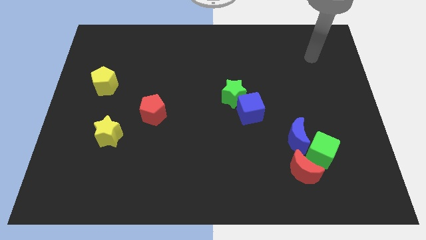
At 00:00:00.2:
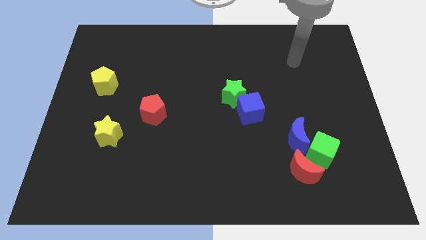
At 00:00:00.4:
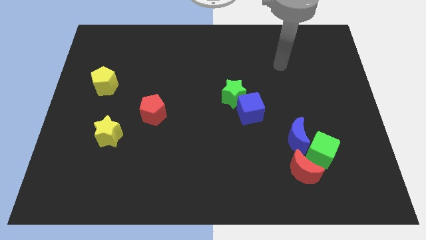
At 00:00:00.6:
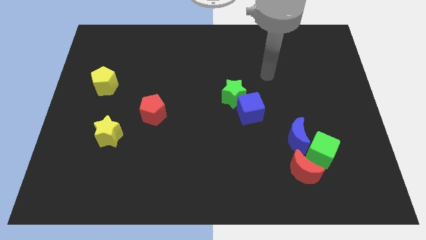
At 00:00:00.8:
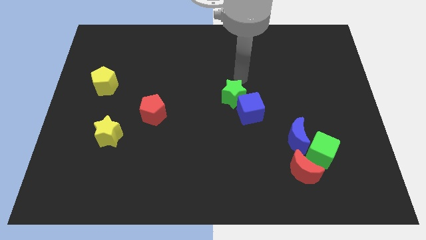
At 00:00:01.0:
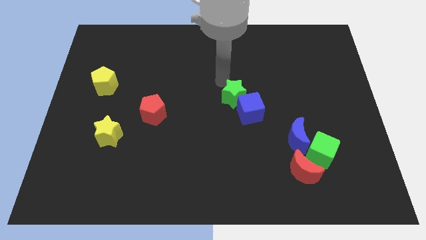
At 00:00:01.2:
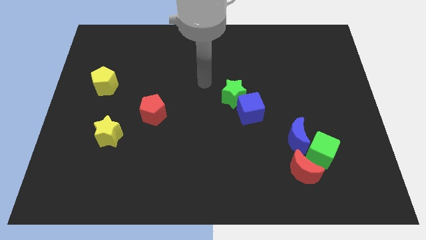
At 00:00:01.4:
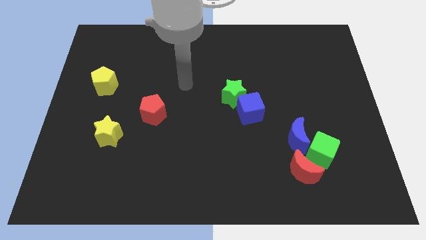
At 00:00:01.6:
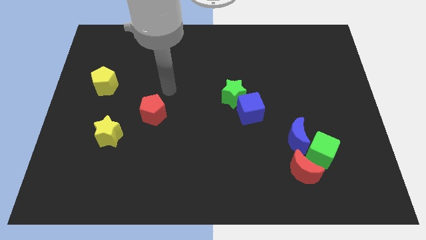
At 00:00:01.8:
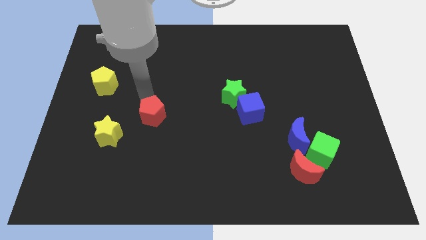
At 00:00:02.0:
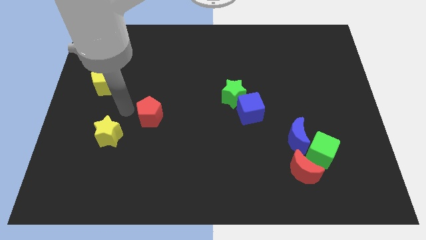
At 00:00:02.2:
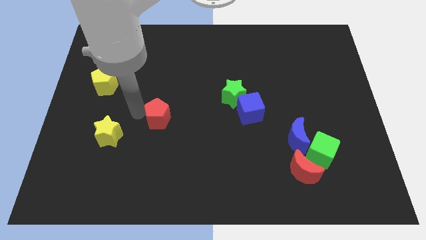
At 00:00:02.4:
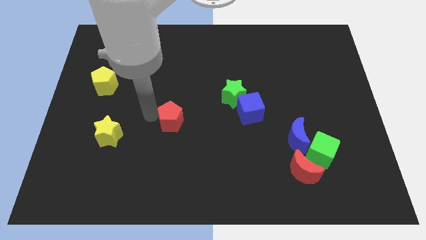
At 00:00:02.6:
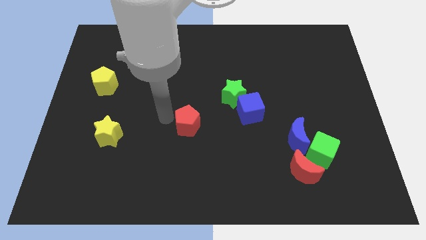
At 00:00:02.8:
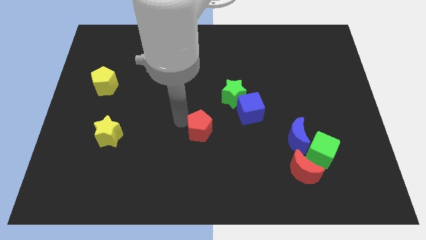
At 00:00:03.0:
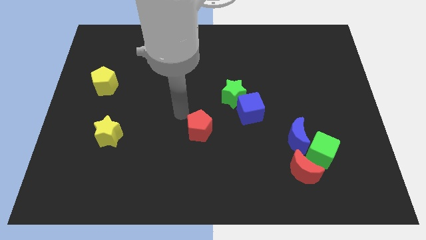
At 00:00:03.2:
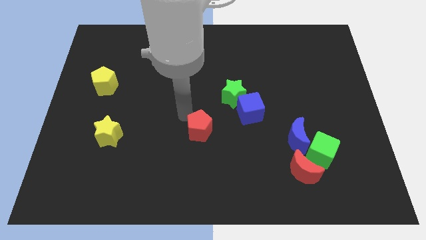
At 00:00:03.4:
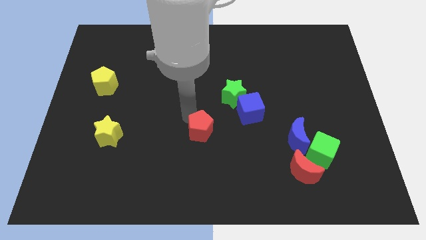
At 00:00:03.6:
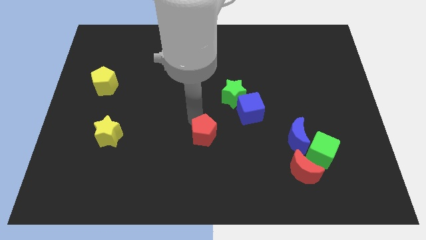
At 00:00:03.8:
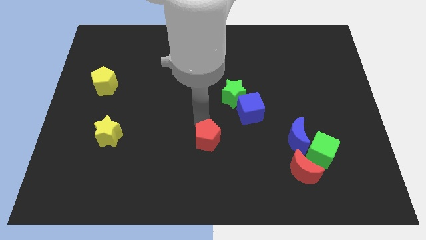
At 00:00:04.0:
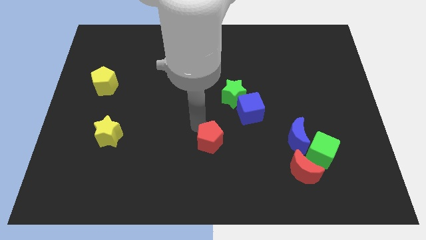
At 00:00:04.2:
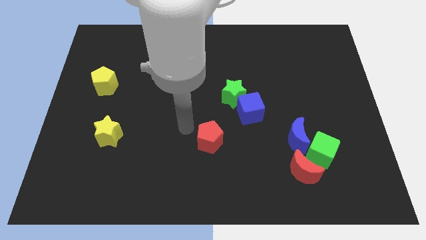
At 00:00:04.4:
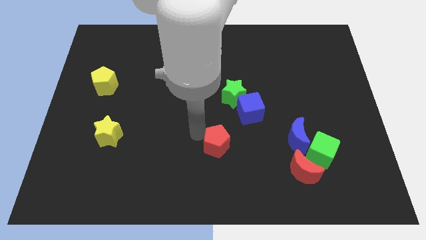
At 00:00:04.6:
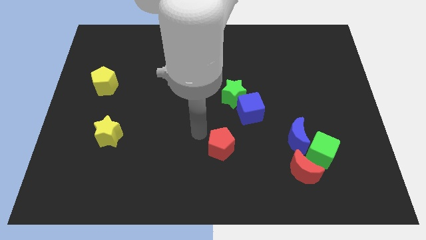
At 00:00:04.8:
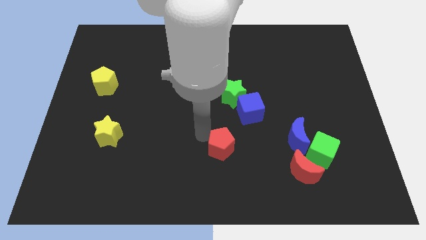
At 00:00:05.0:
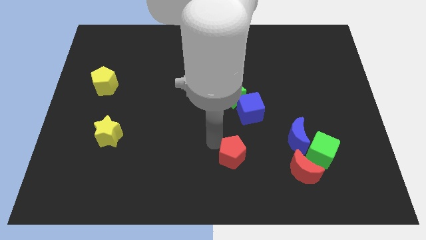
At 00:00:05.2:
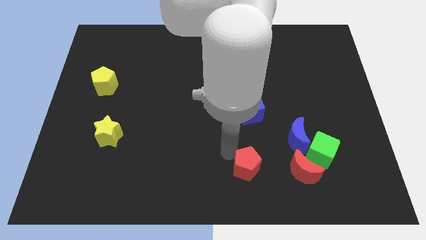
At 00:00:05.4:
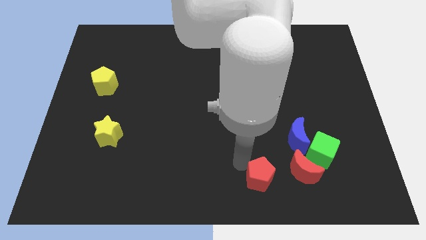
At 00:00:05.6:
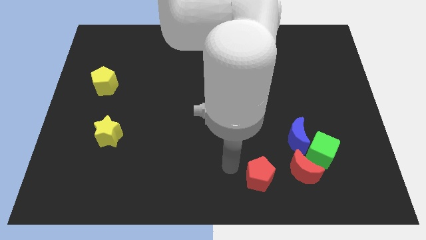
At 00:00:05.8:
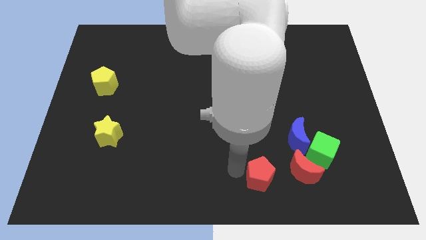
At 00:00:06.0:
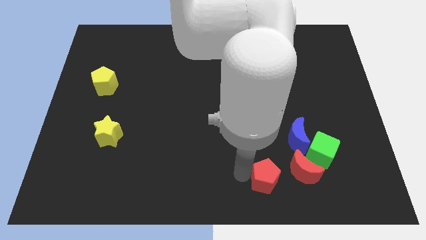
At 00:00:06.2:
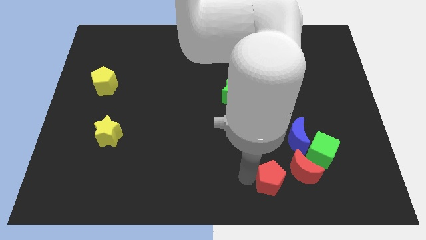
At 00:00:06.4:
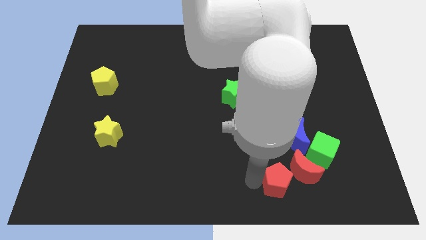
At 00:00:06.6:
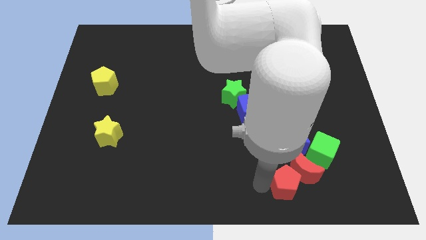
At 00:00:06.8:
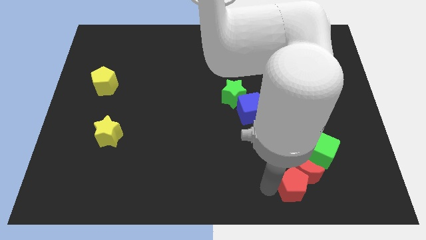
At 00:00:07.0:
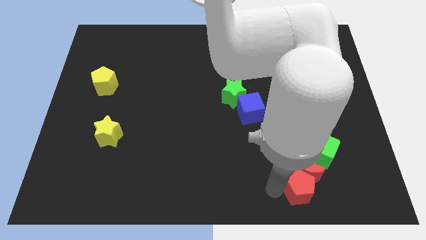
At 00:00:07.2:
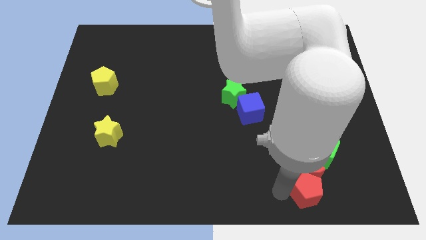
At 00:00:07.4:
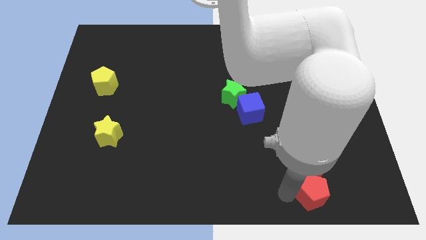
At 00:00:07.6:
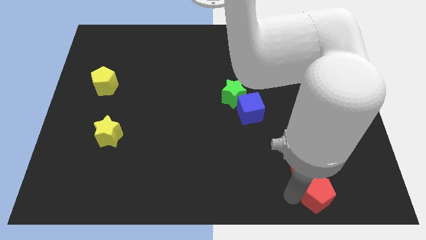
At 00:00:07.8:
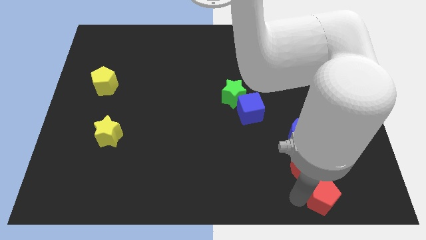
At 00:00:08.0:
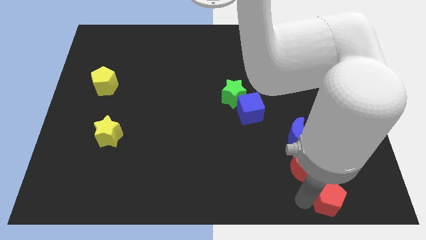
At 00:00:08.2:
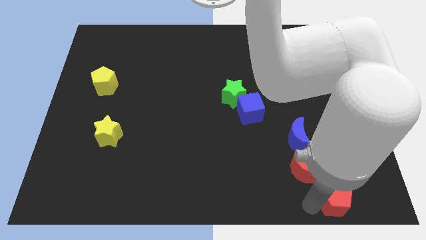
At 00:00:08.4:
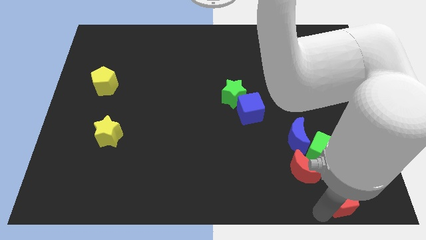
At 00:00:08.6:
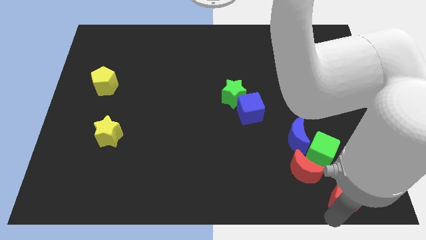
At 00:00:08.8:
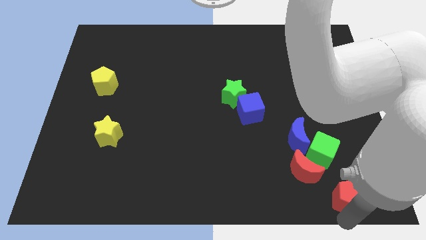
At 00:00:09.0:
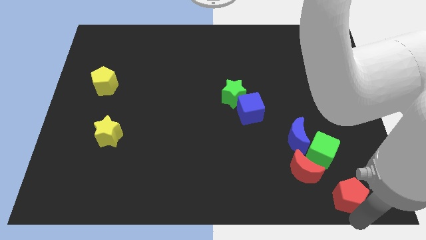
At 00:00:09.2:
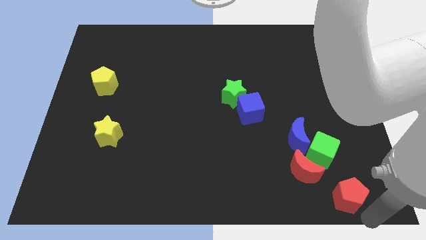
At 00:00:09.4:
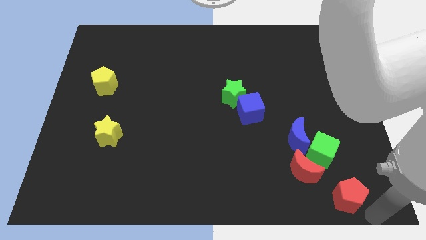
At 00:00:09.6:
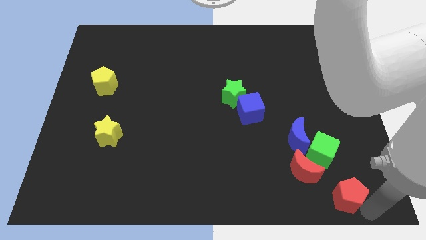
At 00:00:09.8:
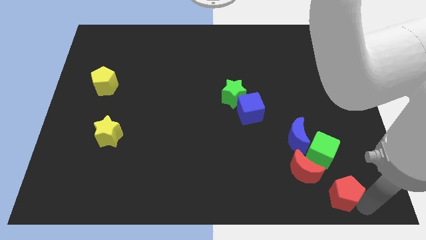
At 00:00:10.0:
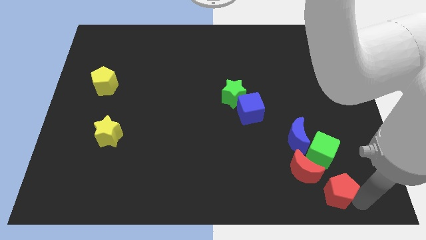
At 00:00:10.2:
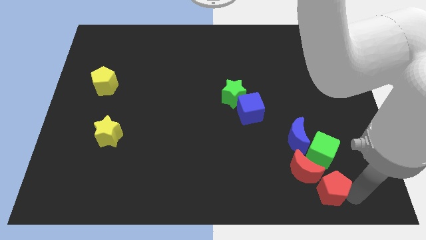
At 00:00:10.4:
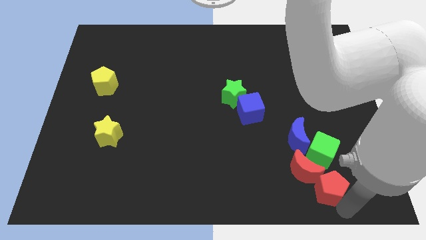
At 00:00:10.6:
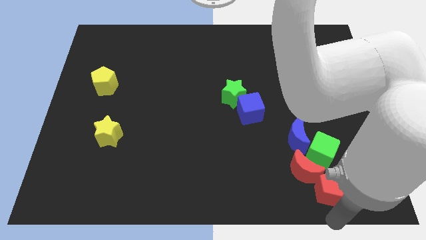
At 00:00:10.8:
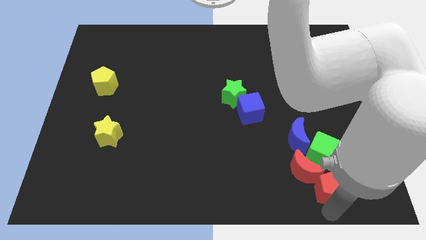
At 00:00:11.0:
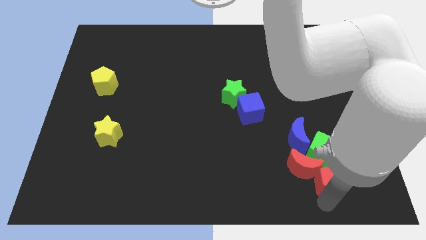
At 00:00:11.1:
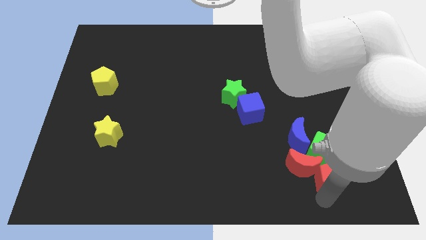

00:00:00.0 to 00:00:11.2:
move the red pentagon close to the green cube

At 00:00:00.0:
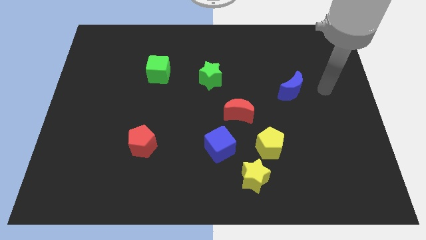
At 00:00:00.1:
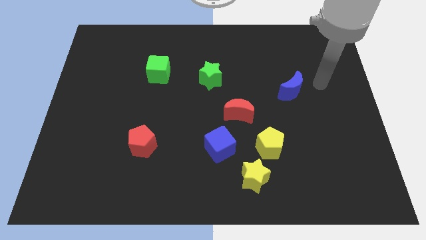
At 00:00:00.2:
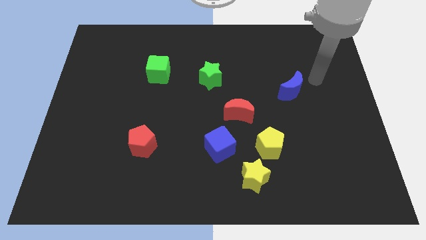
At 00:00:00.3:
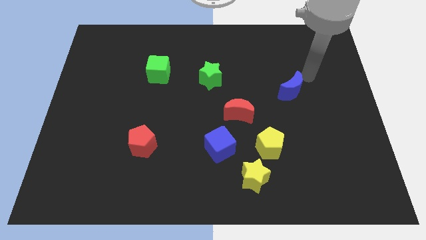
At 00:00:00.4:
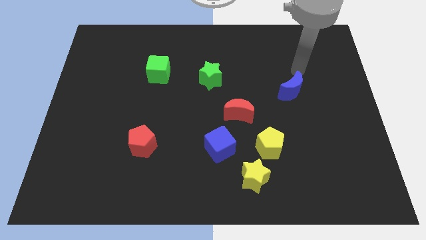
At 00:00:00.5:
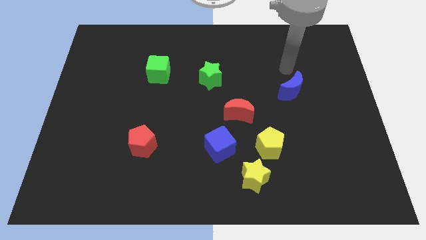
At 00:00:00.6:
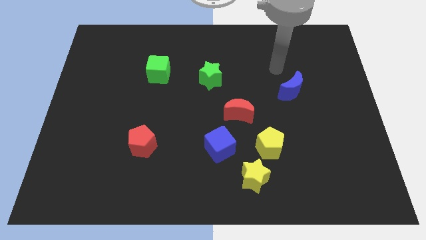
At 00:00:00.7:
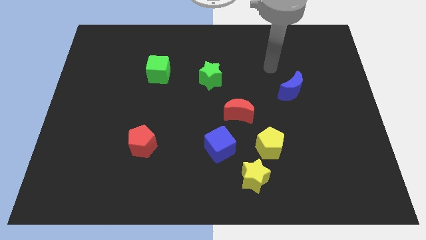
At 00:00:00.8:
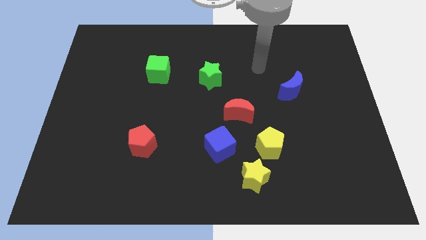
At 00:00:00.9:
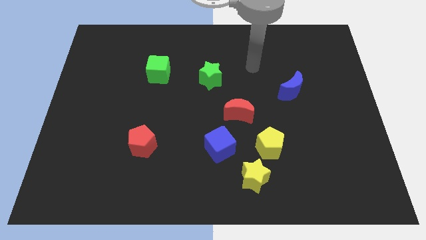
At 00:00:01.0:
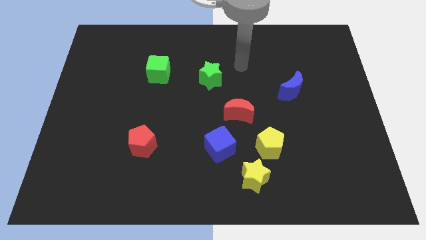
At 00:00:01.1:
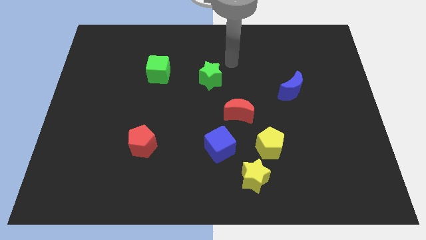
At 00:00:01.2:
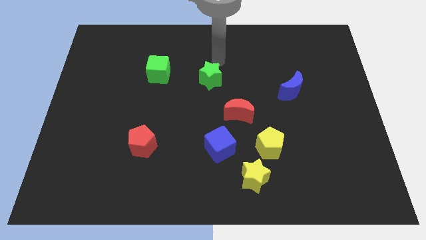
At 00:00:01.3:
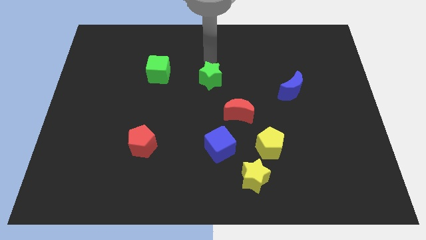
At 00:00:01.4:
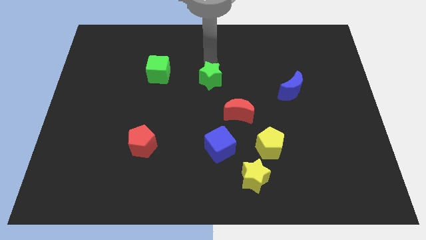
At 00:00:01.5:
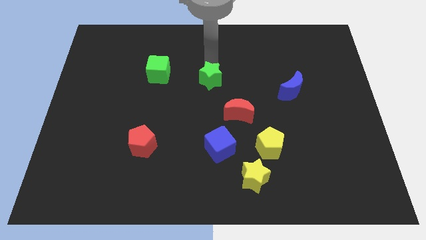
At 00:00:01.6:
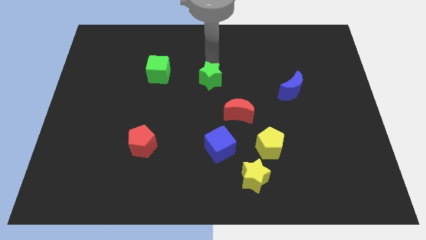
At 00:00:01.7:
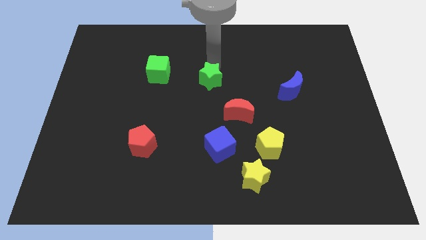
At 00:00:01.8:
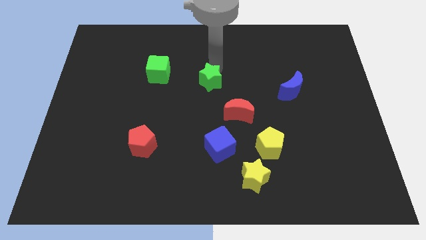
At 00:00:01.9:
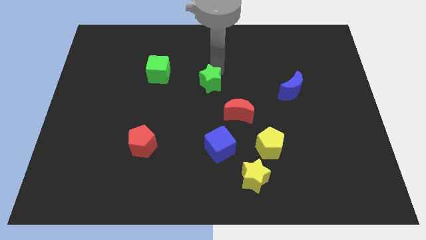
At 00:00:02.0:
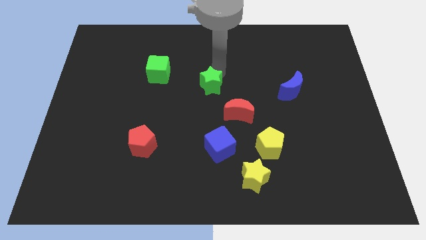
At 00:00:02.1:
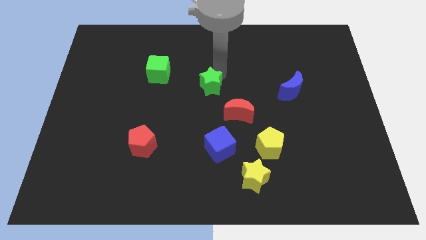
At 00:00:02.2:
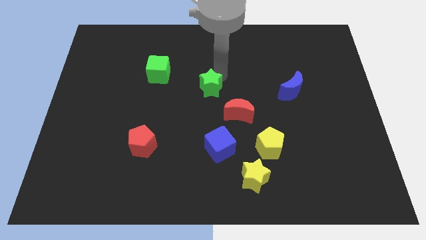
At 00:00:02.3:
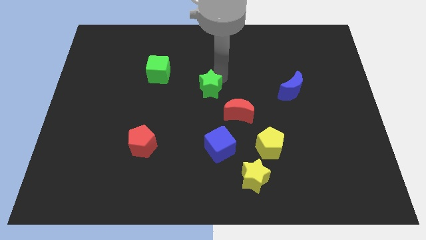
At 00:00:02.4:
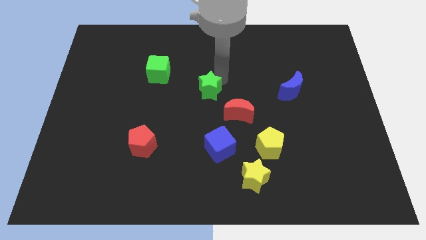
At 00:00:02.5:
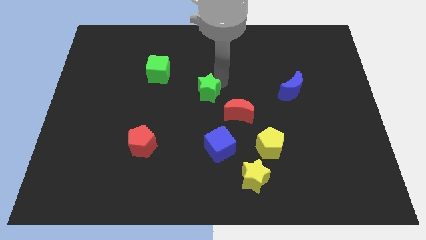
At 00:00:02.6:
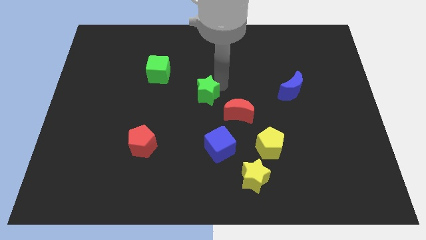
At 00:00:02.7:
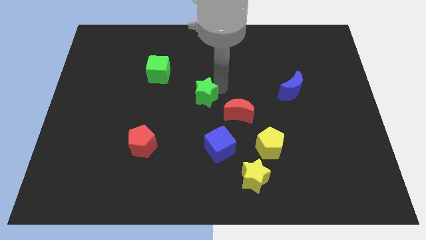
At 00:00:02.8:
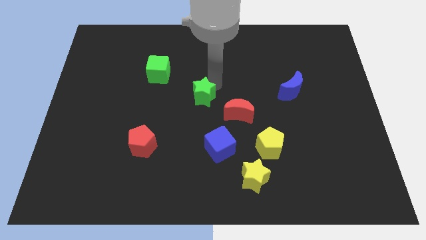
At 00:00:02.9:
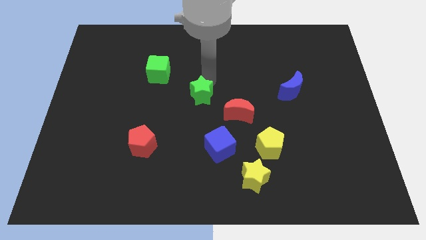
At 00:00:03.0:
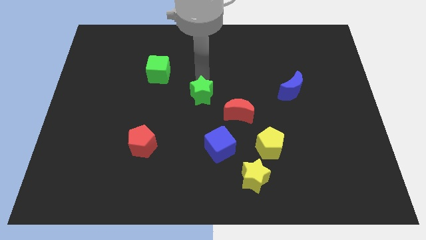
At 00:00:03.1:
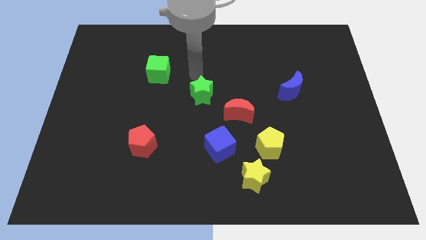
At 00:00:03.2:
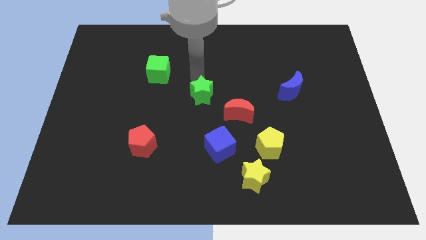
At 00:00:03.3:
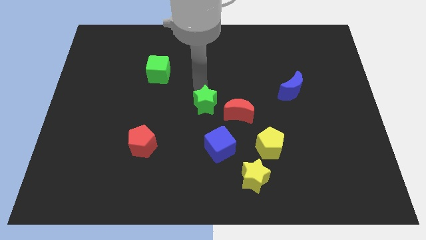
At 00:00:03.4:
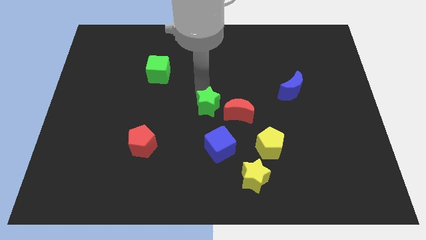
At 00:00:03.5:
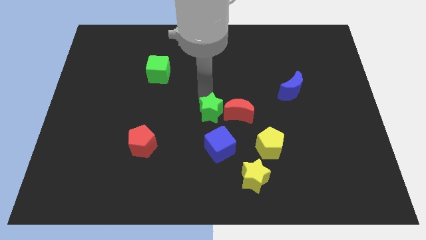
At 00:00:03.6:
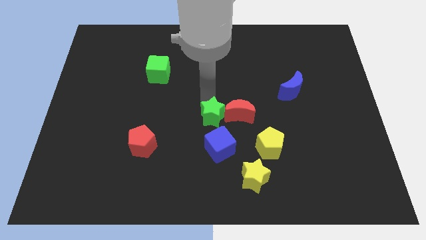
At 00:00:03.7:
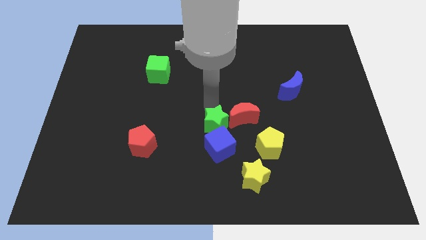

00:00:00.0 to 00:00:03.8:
push the green star close to the blue cube
